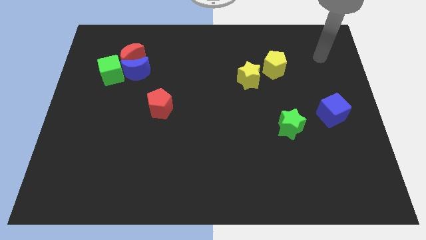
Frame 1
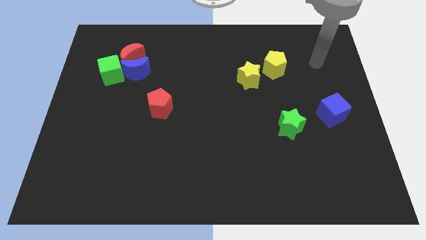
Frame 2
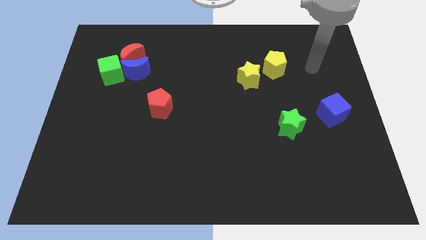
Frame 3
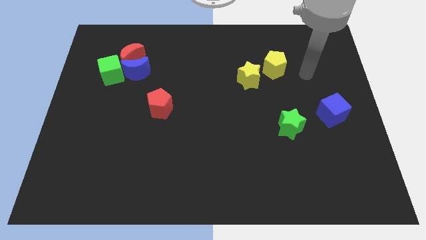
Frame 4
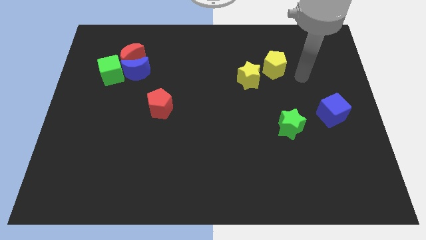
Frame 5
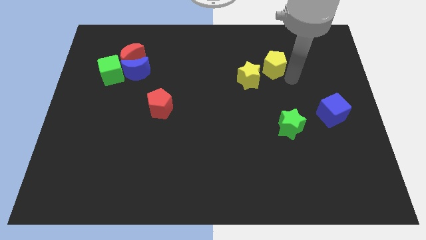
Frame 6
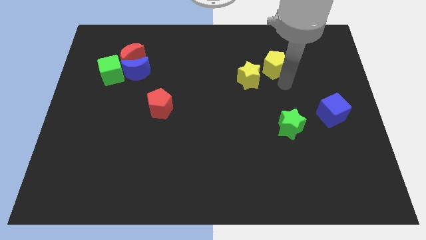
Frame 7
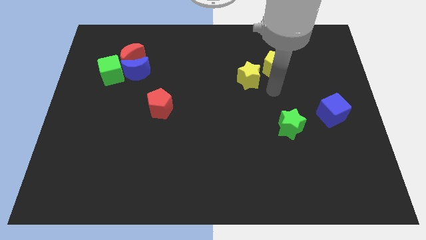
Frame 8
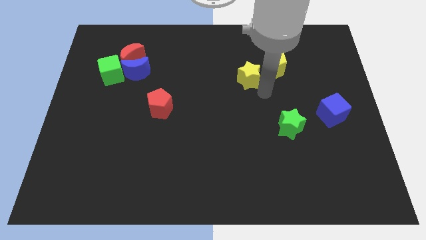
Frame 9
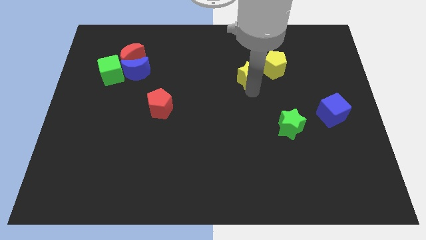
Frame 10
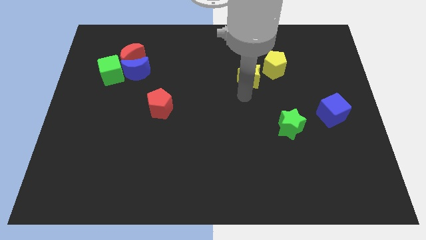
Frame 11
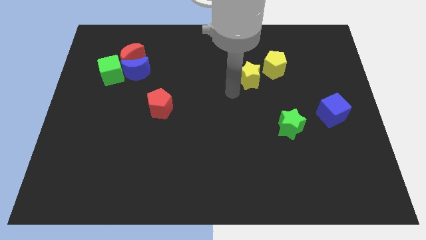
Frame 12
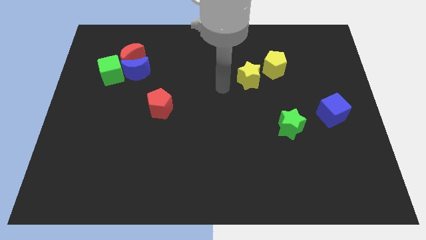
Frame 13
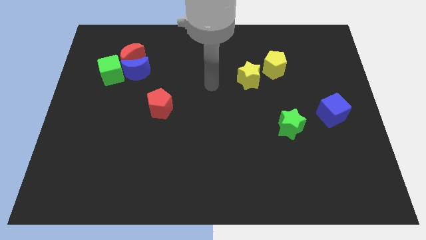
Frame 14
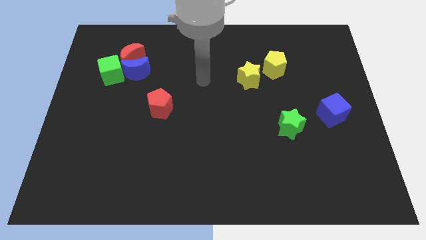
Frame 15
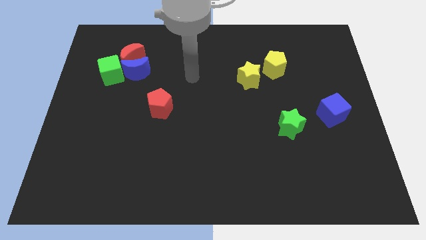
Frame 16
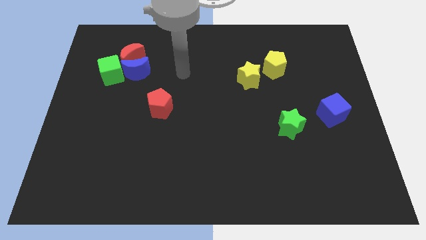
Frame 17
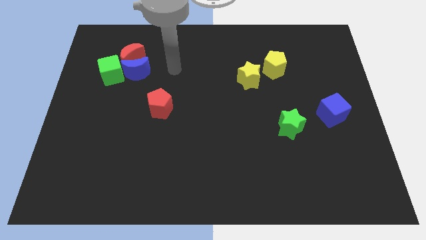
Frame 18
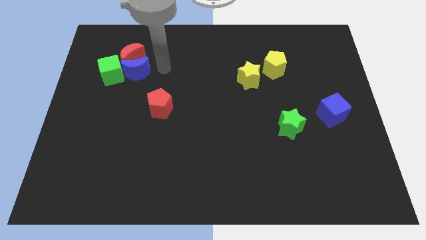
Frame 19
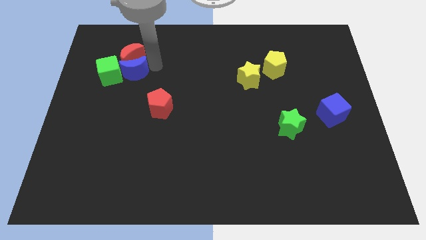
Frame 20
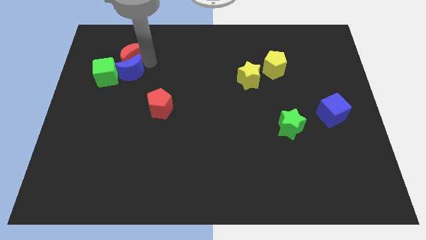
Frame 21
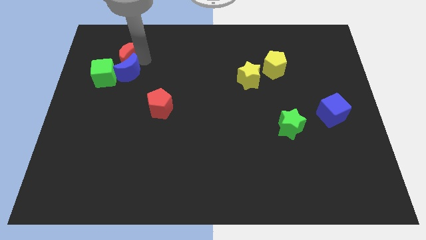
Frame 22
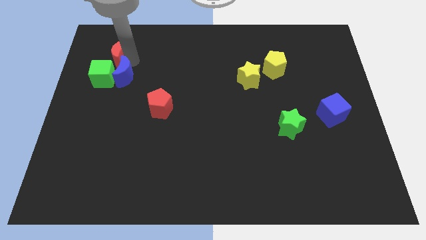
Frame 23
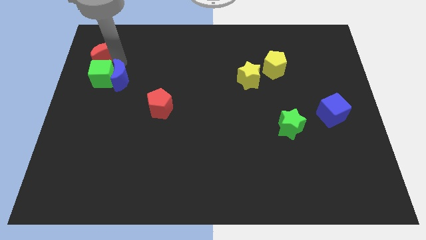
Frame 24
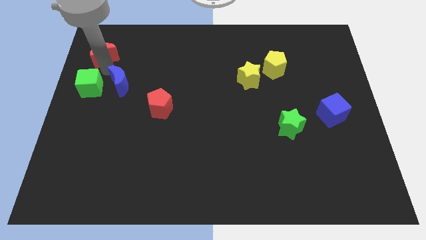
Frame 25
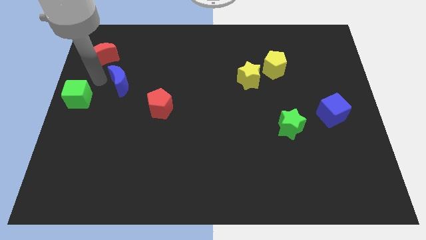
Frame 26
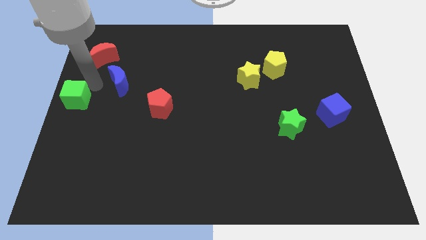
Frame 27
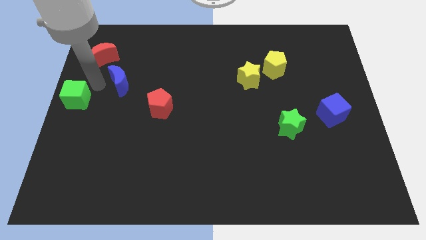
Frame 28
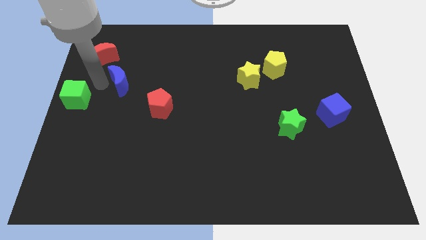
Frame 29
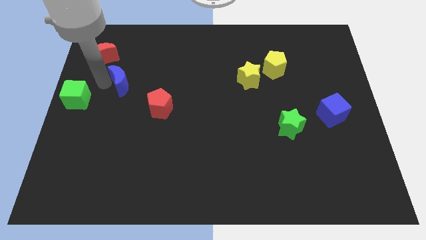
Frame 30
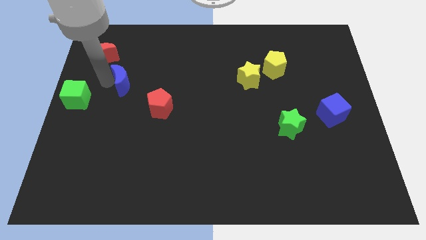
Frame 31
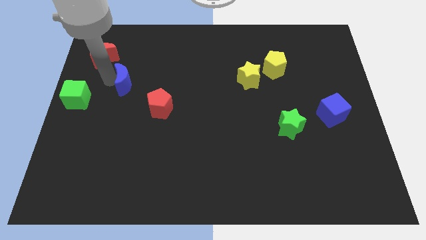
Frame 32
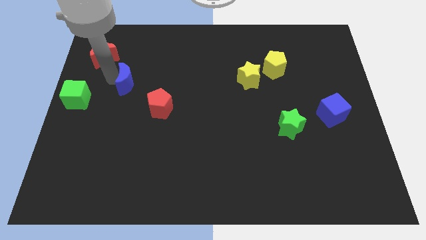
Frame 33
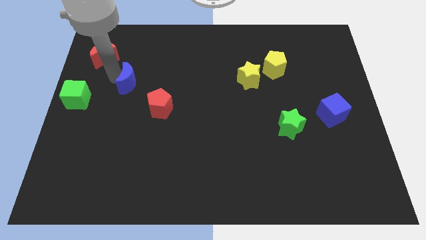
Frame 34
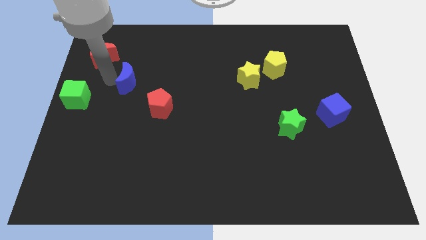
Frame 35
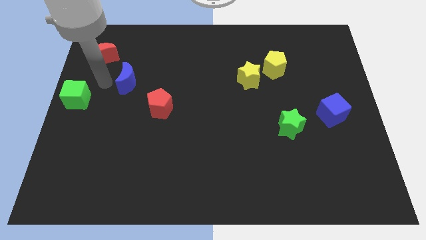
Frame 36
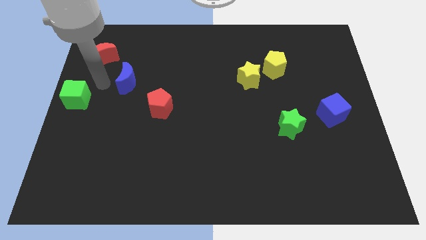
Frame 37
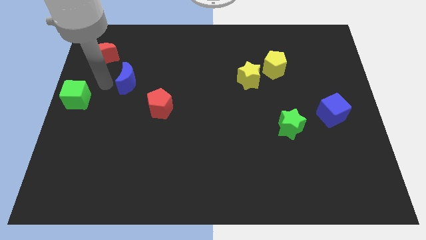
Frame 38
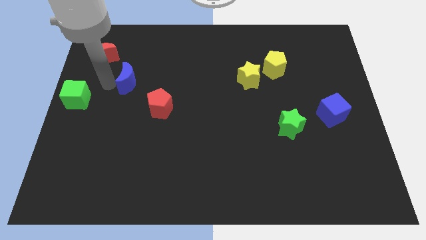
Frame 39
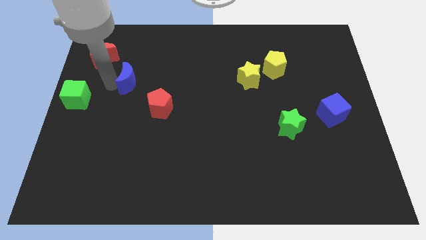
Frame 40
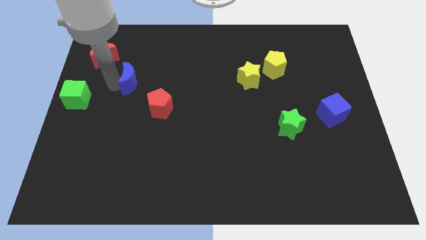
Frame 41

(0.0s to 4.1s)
separate the blue moon from the red moon and green cube

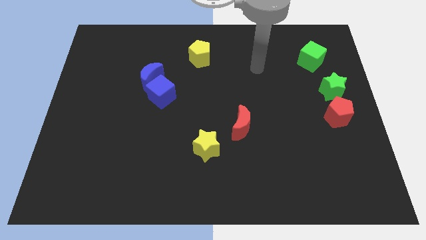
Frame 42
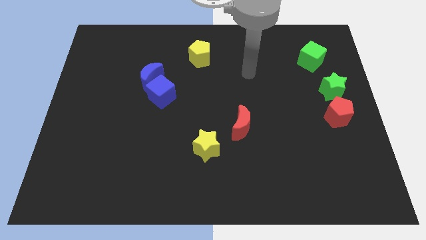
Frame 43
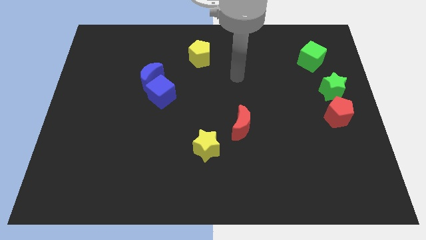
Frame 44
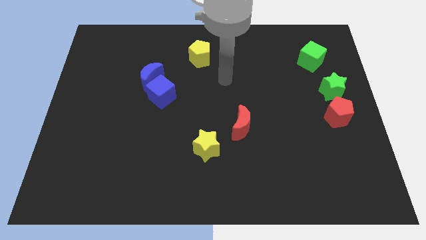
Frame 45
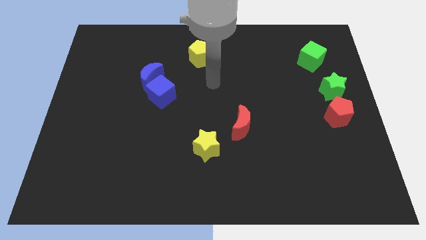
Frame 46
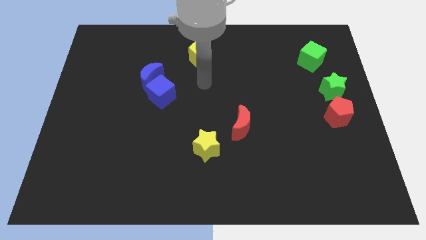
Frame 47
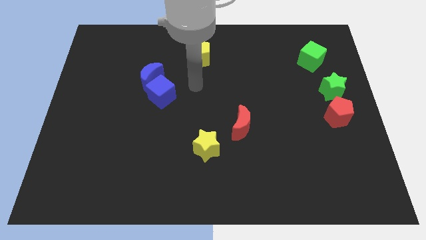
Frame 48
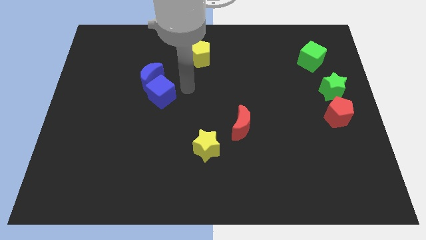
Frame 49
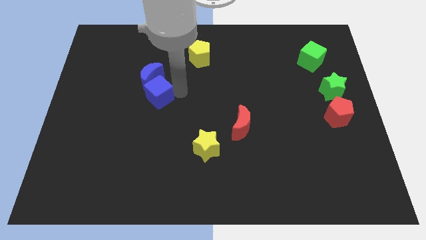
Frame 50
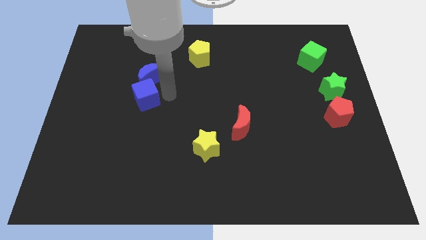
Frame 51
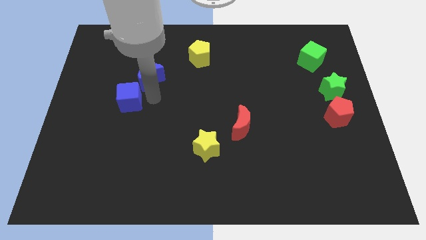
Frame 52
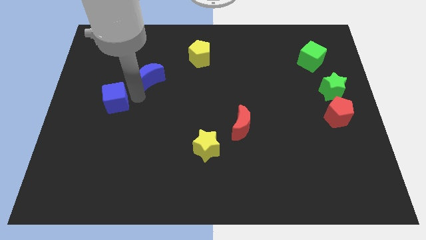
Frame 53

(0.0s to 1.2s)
pull the blue moon apart from the blue cube

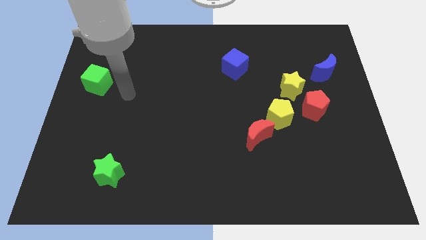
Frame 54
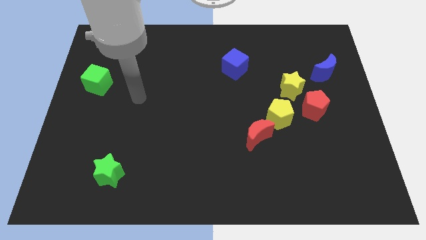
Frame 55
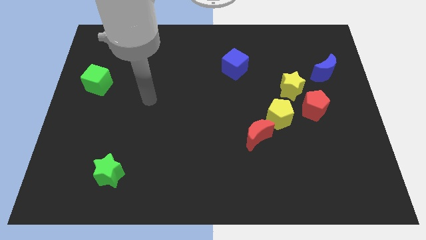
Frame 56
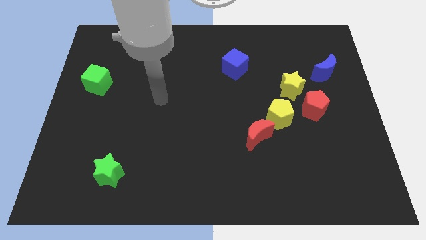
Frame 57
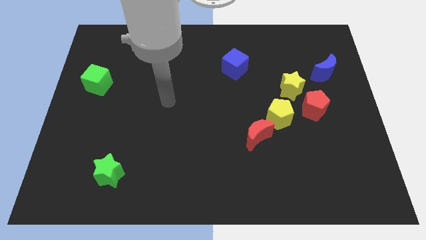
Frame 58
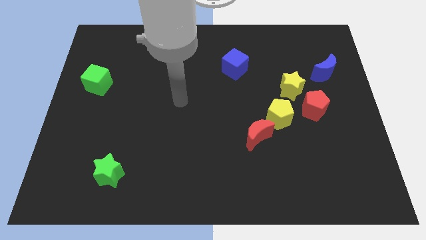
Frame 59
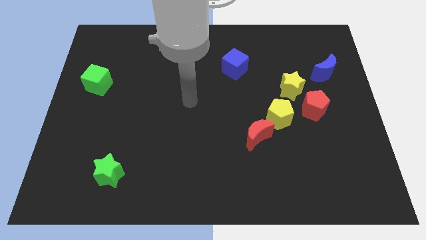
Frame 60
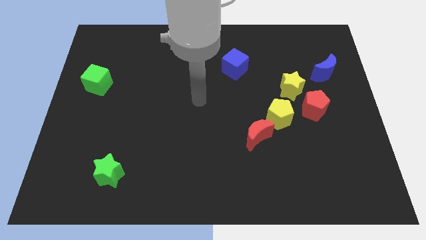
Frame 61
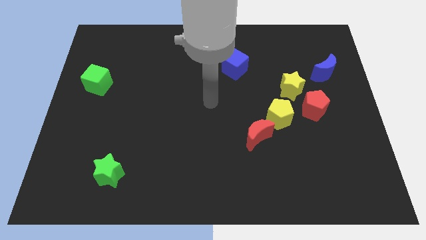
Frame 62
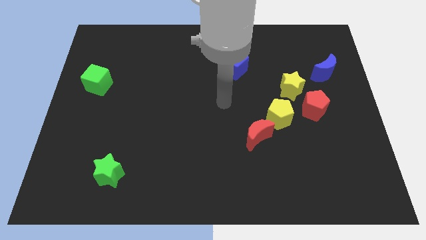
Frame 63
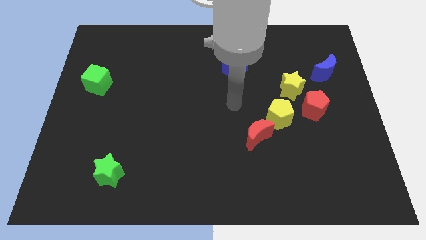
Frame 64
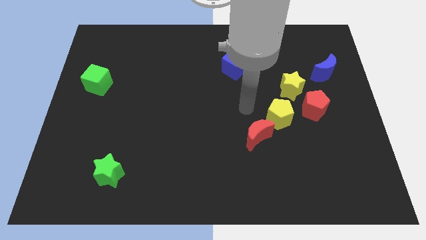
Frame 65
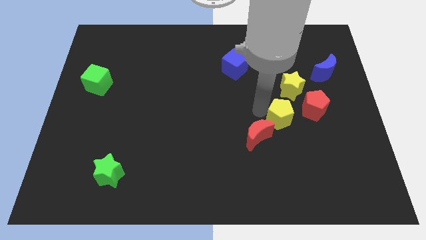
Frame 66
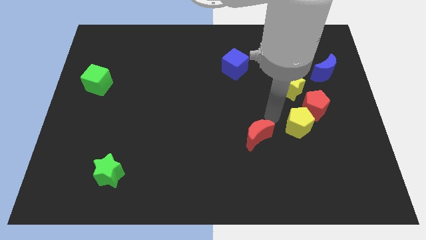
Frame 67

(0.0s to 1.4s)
pull the red moon apart from the yellow pentagon

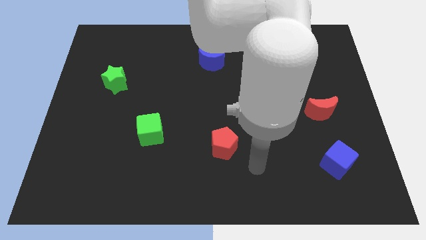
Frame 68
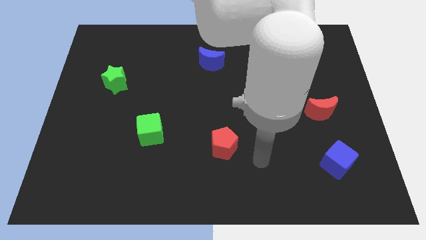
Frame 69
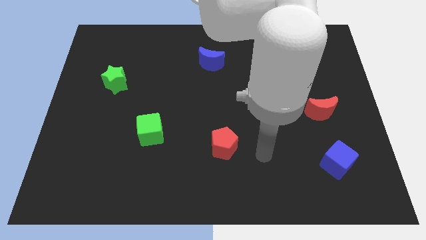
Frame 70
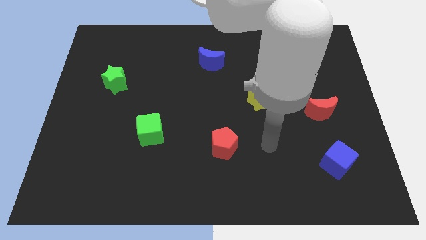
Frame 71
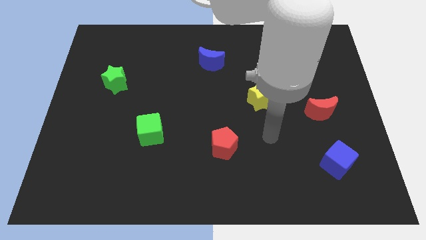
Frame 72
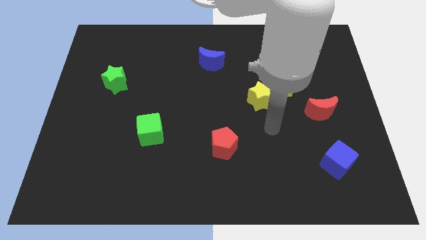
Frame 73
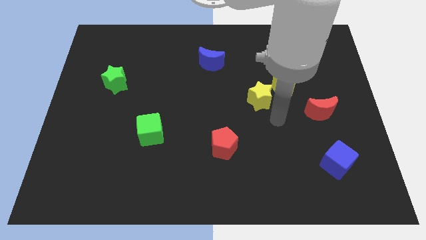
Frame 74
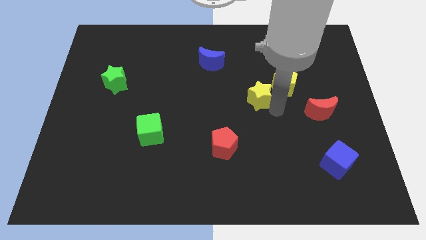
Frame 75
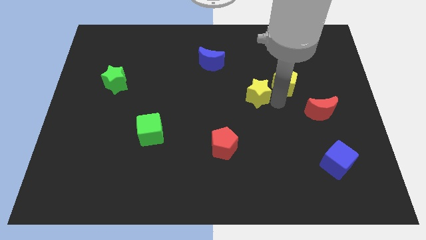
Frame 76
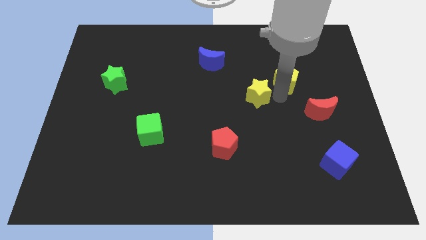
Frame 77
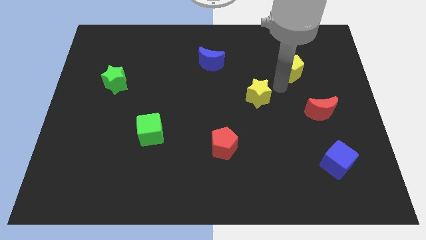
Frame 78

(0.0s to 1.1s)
move the yellow star away from the yellow pentagon

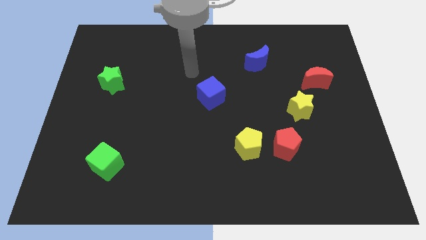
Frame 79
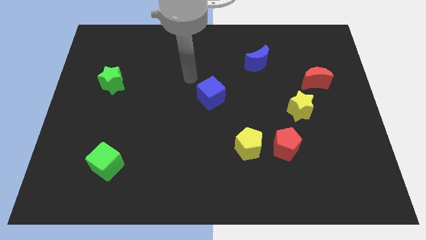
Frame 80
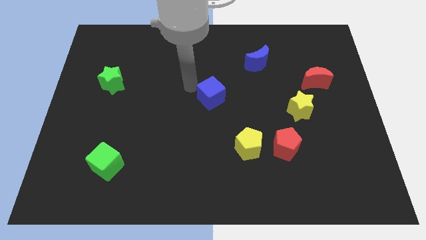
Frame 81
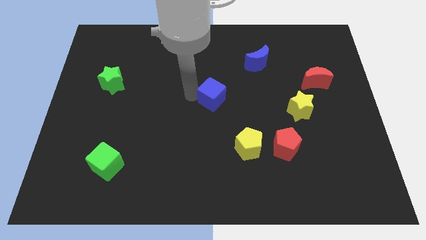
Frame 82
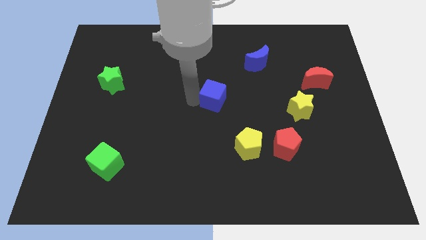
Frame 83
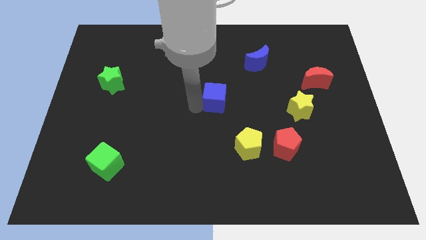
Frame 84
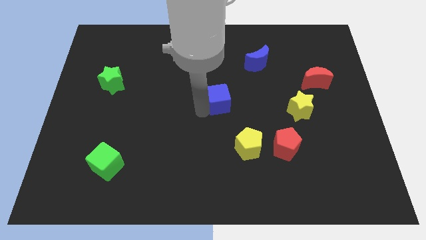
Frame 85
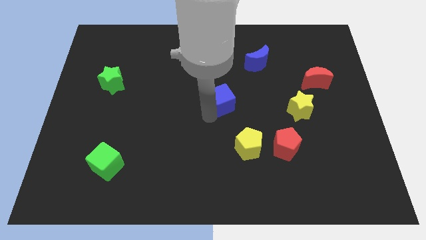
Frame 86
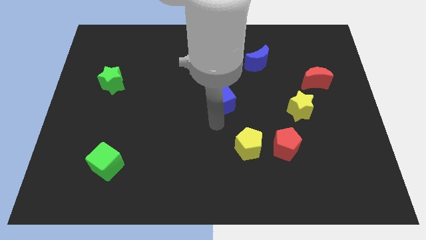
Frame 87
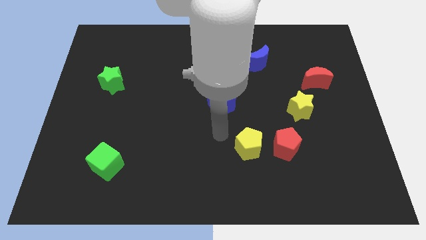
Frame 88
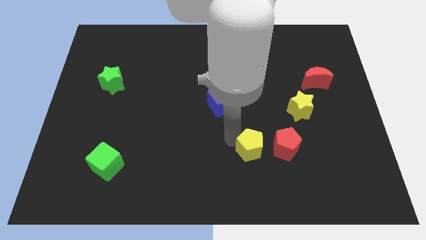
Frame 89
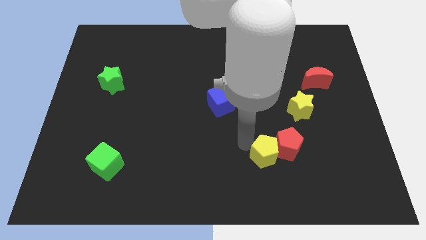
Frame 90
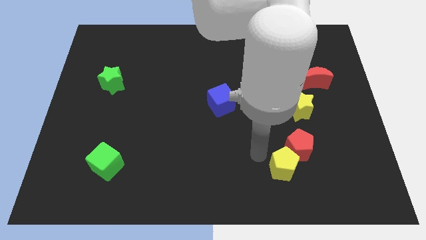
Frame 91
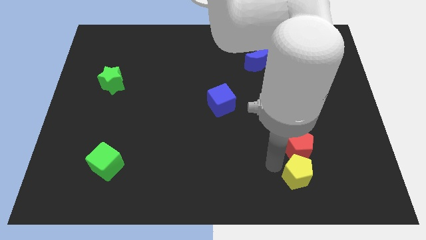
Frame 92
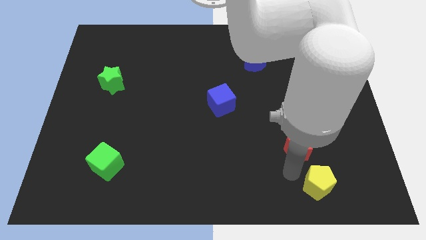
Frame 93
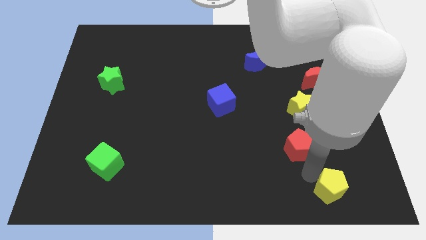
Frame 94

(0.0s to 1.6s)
separate the red pentagon from the yellow pentagon

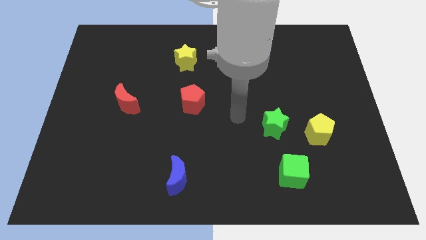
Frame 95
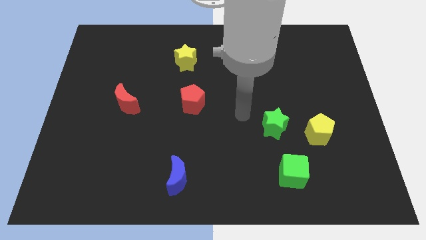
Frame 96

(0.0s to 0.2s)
separate the green star from the yellow pentagon
